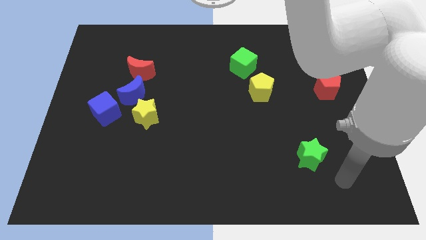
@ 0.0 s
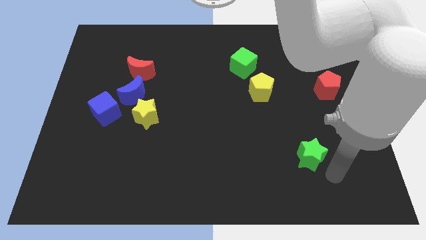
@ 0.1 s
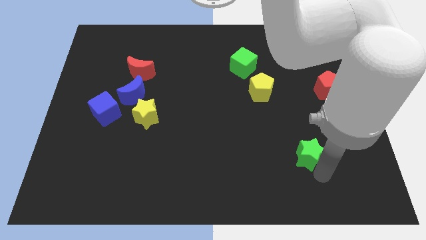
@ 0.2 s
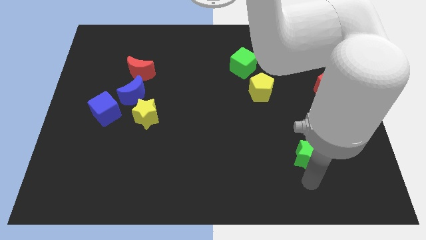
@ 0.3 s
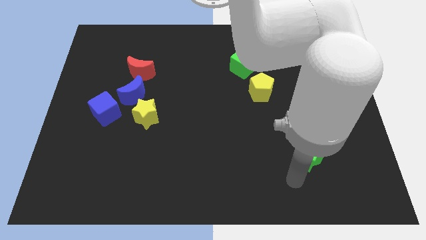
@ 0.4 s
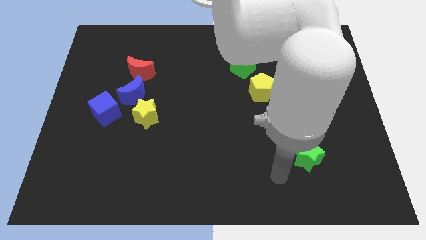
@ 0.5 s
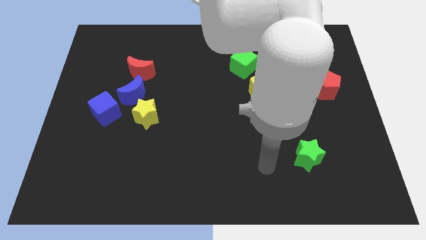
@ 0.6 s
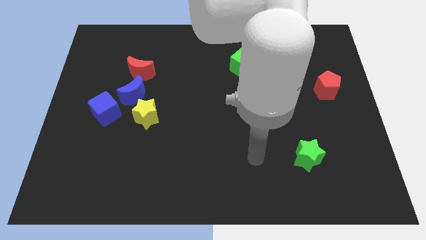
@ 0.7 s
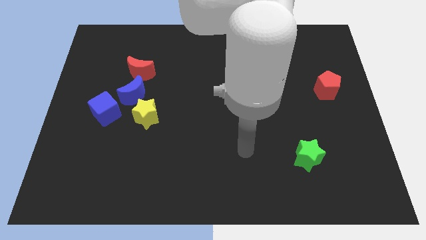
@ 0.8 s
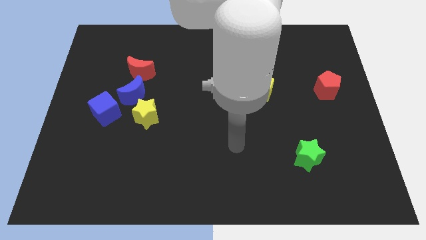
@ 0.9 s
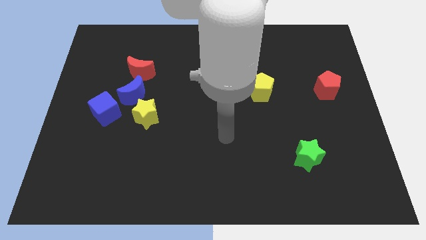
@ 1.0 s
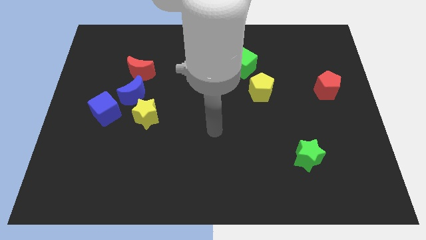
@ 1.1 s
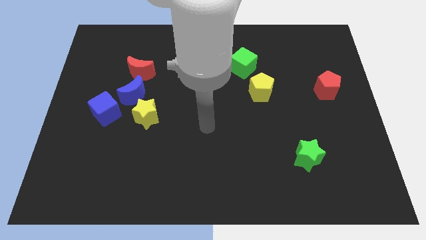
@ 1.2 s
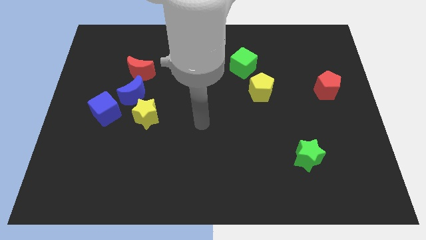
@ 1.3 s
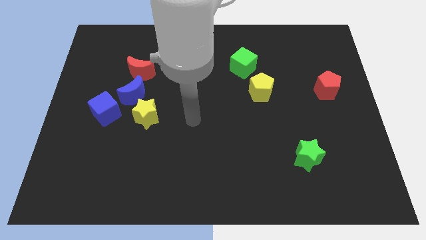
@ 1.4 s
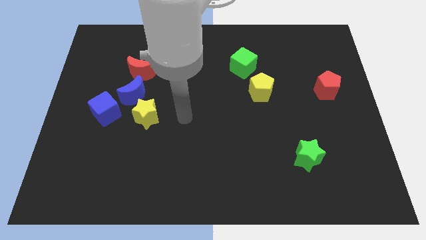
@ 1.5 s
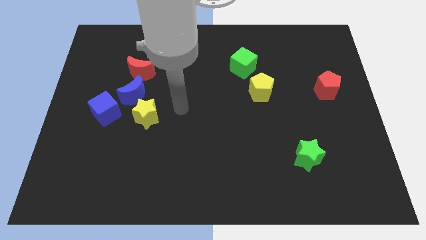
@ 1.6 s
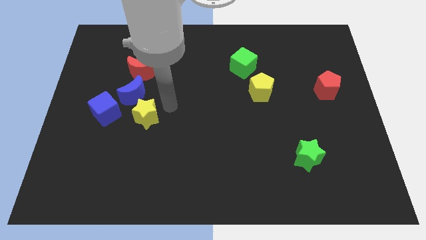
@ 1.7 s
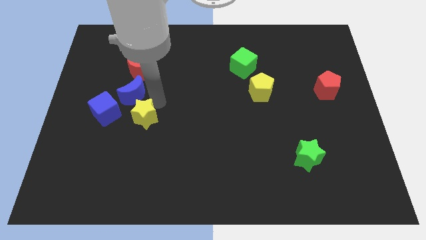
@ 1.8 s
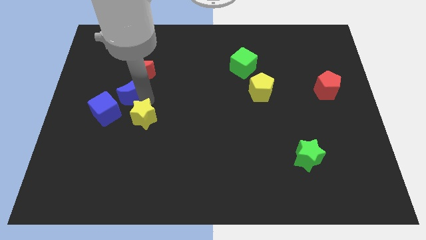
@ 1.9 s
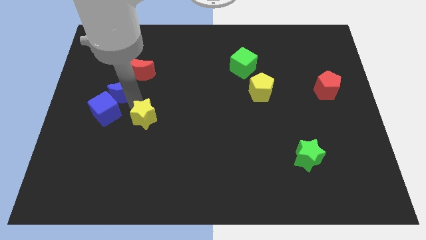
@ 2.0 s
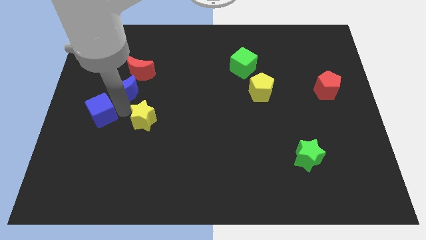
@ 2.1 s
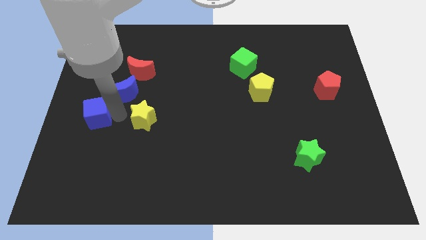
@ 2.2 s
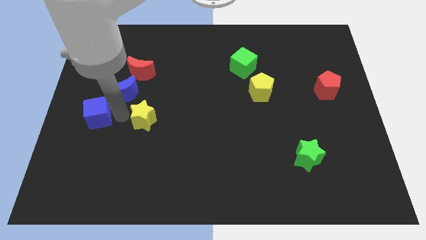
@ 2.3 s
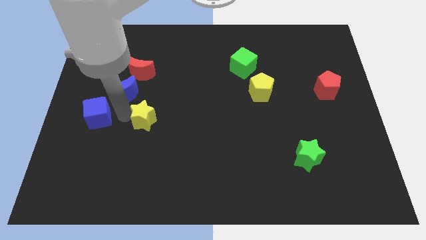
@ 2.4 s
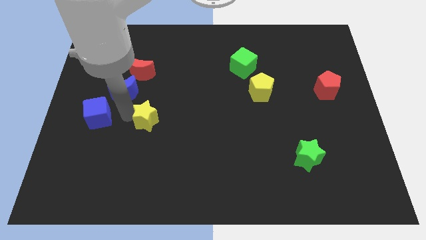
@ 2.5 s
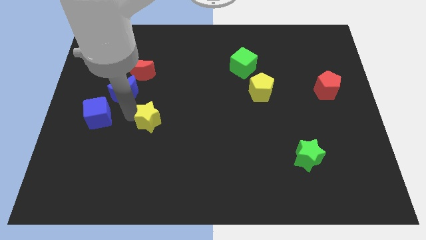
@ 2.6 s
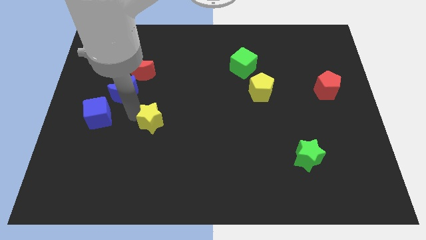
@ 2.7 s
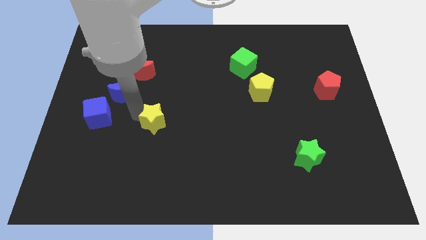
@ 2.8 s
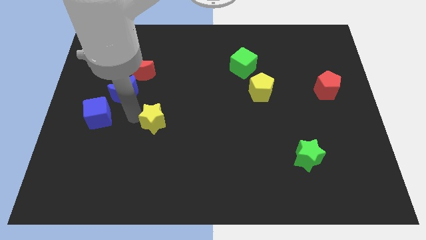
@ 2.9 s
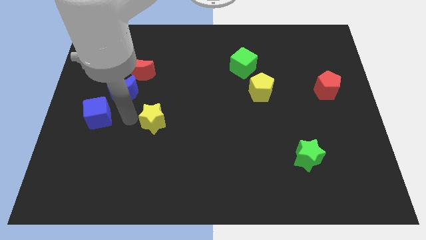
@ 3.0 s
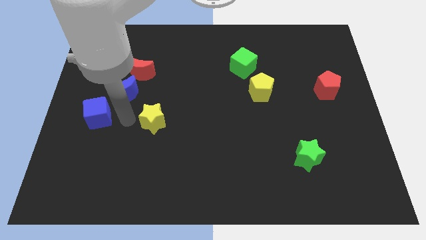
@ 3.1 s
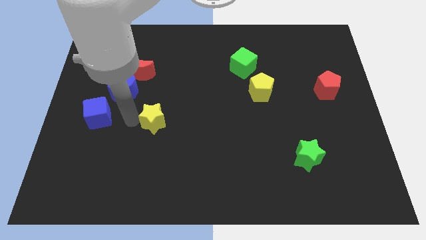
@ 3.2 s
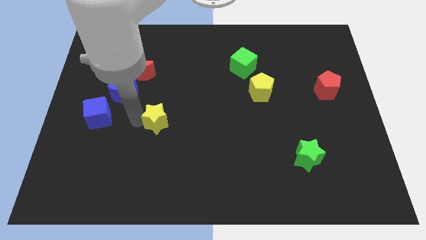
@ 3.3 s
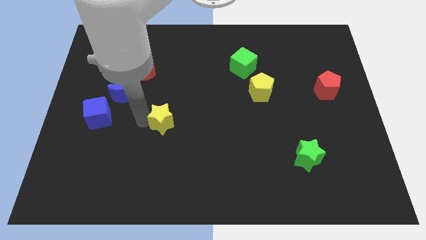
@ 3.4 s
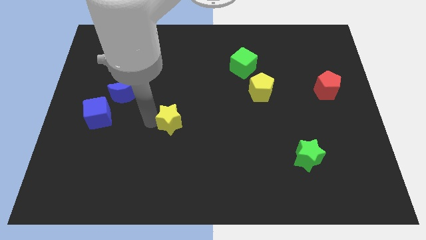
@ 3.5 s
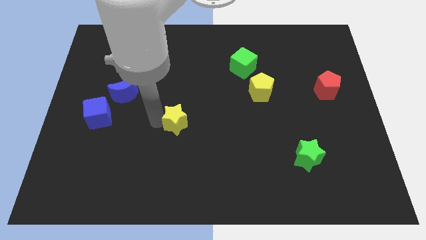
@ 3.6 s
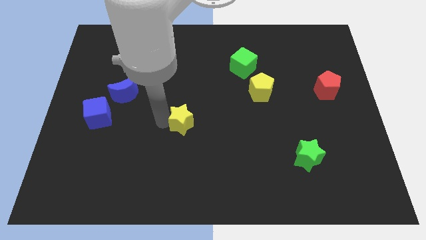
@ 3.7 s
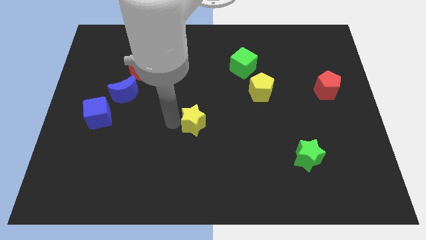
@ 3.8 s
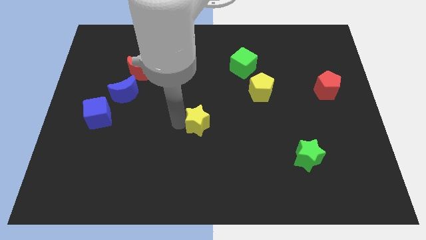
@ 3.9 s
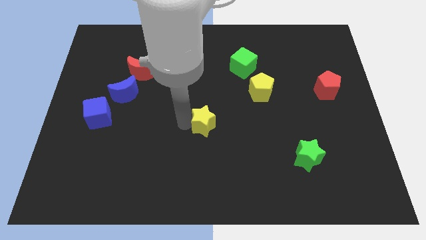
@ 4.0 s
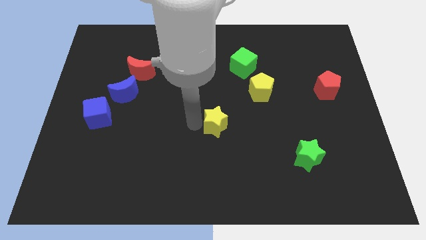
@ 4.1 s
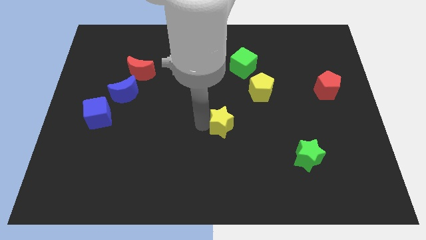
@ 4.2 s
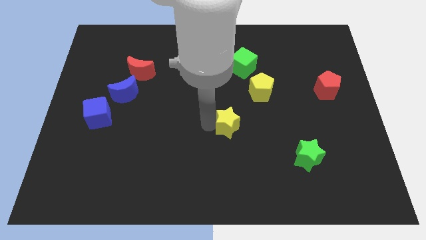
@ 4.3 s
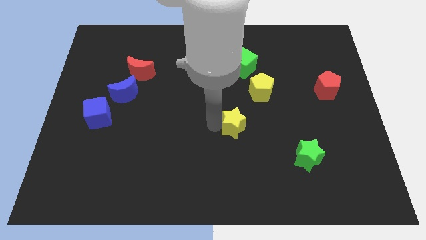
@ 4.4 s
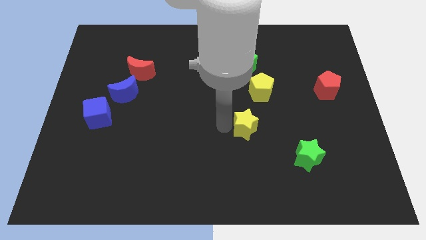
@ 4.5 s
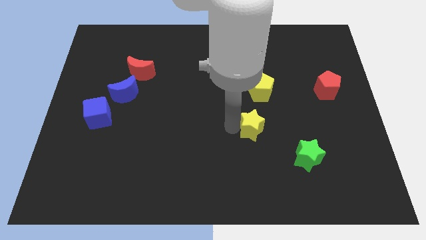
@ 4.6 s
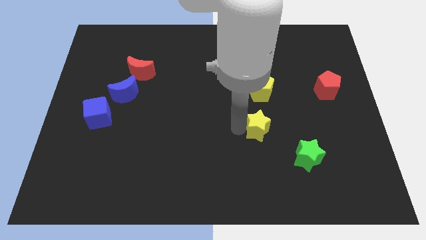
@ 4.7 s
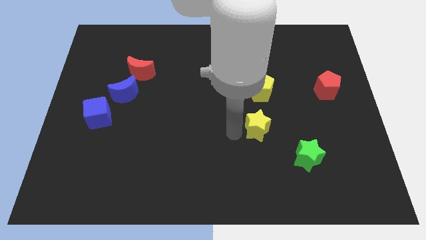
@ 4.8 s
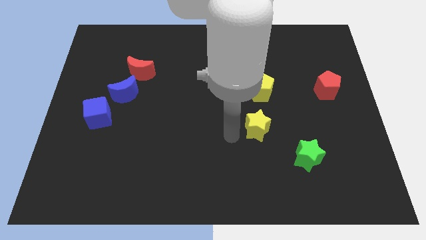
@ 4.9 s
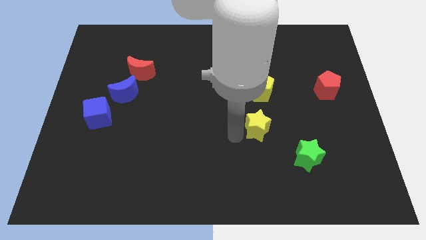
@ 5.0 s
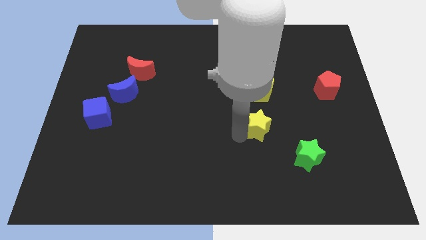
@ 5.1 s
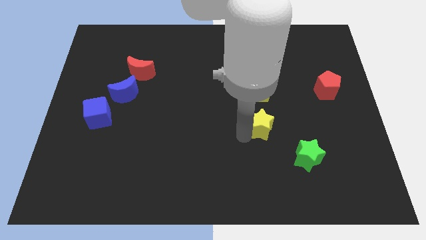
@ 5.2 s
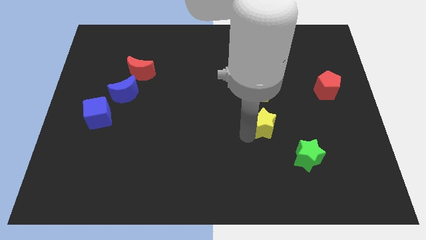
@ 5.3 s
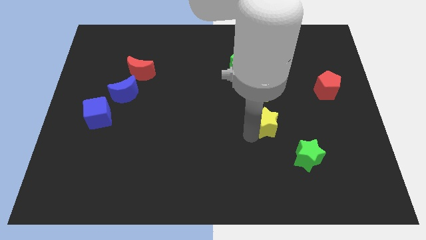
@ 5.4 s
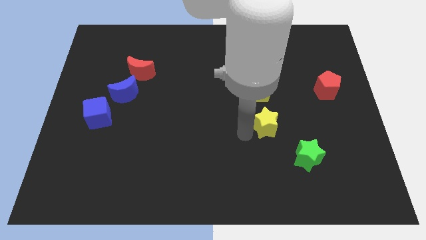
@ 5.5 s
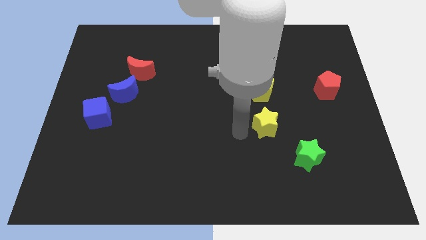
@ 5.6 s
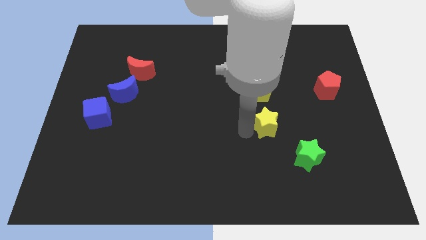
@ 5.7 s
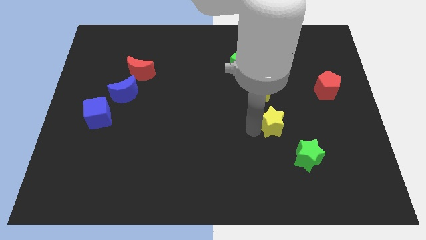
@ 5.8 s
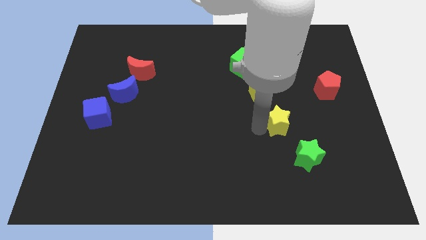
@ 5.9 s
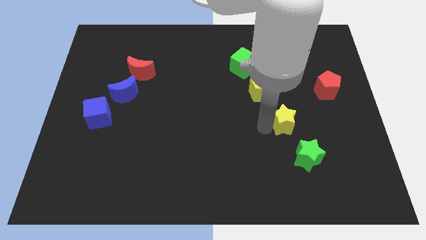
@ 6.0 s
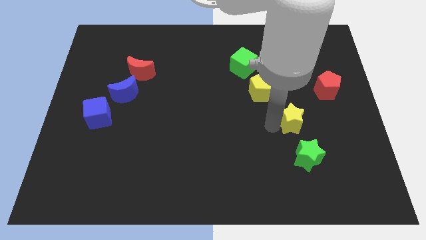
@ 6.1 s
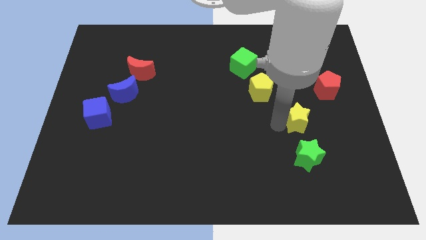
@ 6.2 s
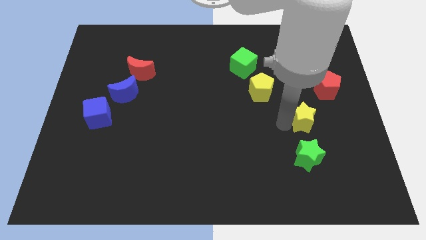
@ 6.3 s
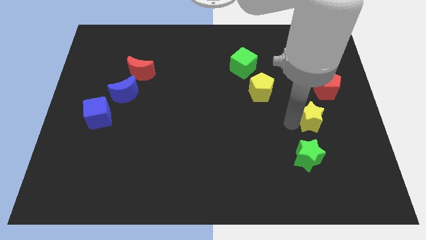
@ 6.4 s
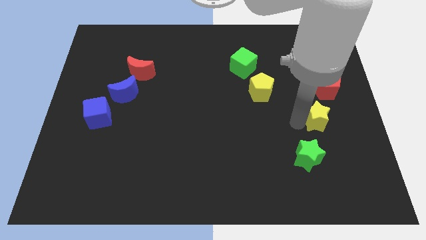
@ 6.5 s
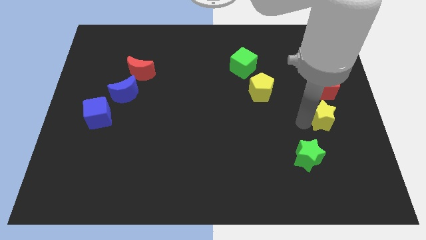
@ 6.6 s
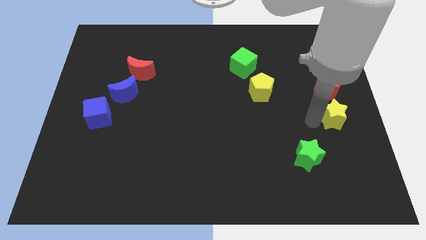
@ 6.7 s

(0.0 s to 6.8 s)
push the yellow star to the right side of the board

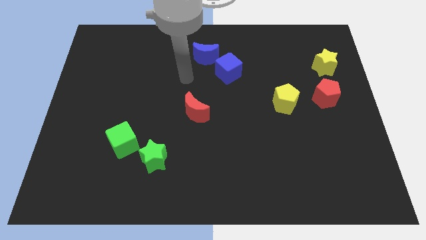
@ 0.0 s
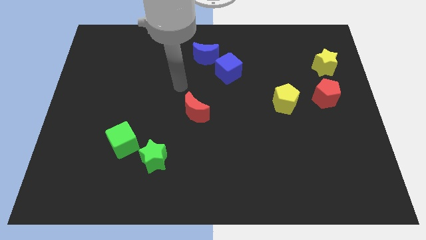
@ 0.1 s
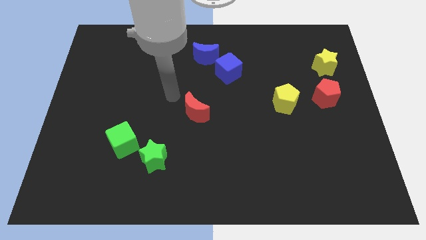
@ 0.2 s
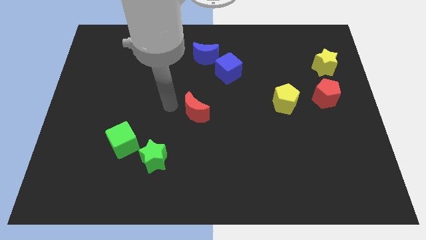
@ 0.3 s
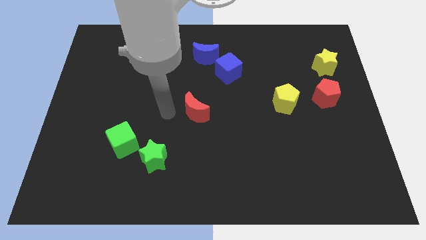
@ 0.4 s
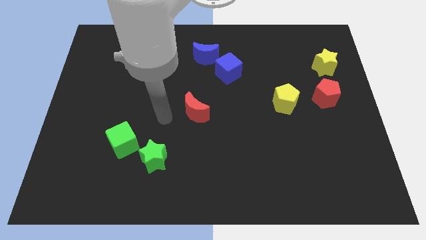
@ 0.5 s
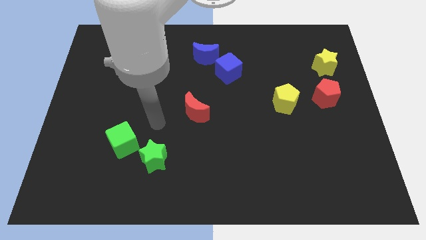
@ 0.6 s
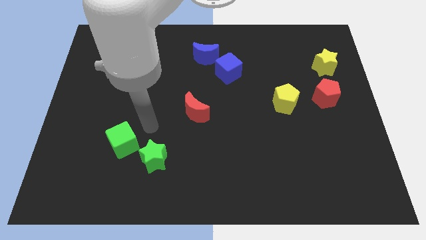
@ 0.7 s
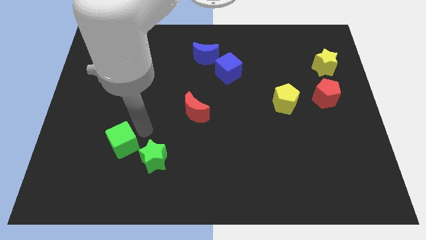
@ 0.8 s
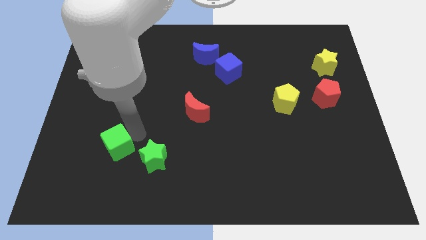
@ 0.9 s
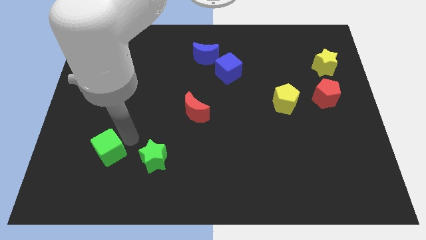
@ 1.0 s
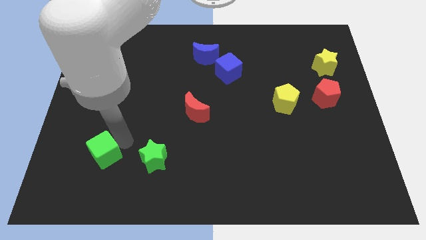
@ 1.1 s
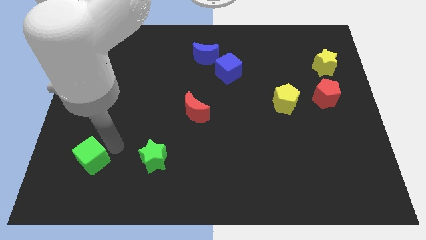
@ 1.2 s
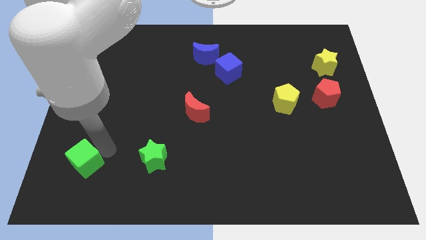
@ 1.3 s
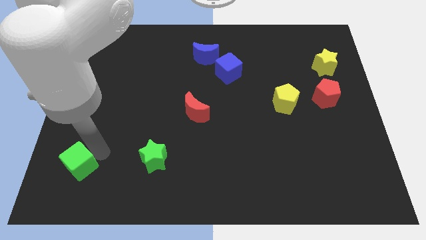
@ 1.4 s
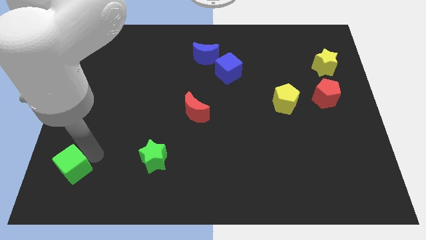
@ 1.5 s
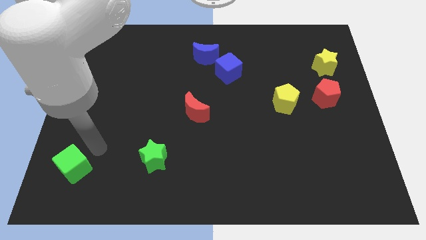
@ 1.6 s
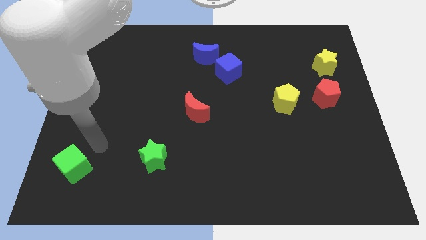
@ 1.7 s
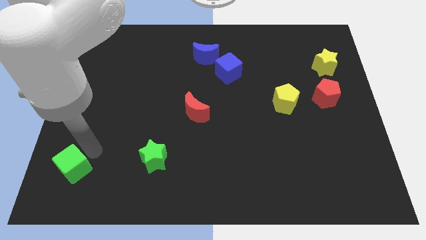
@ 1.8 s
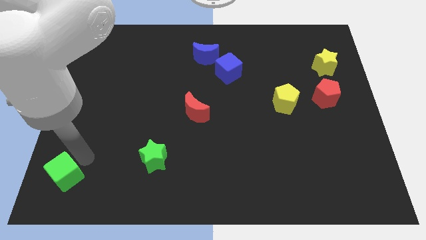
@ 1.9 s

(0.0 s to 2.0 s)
move the green cube to the bottom left
